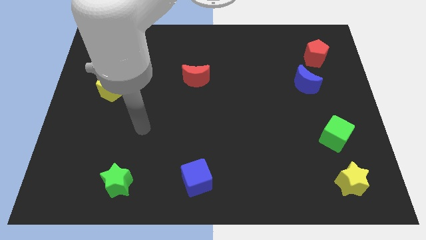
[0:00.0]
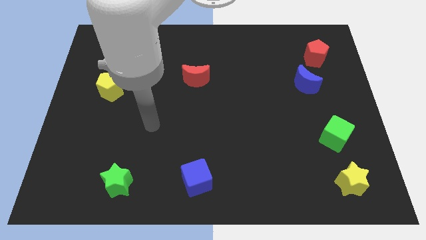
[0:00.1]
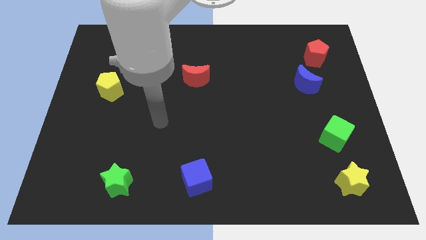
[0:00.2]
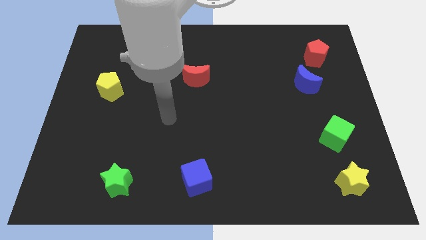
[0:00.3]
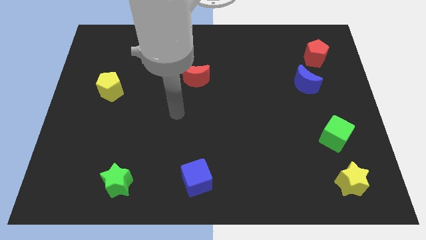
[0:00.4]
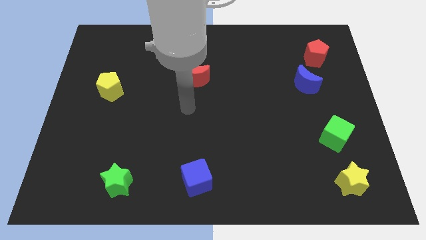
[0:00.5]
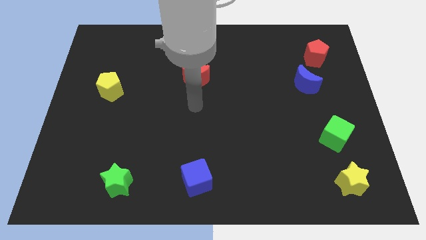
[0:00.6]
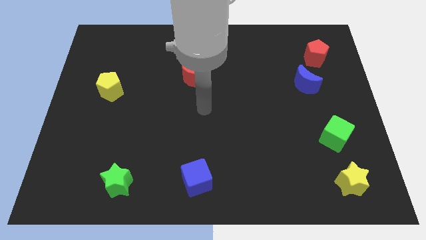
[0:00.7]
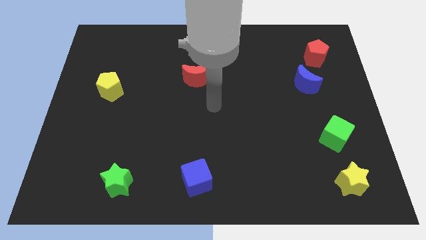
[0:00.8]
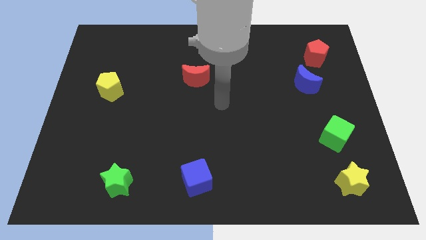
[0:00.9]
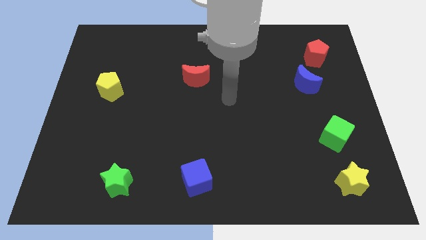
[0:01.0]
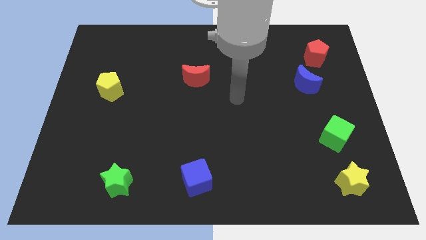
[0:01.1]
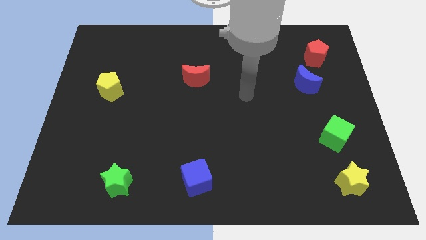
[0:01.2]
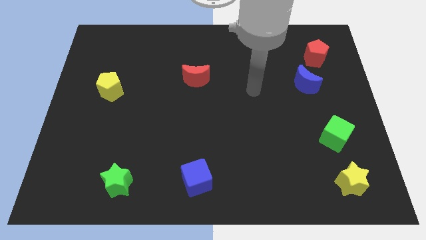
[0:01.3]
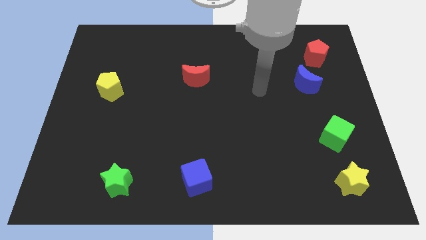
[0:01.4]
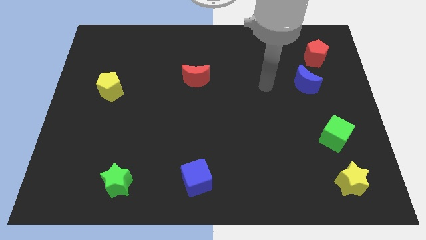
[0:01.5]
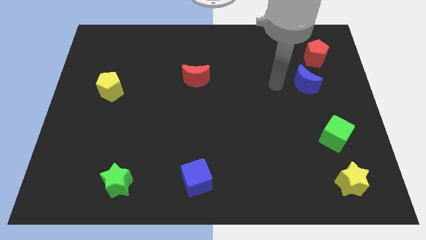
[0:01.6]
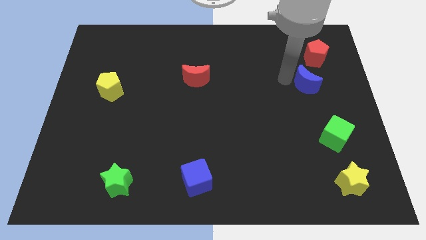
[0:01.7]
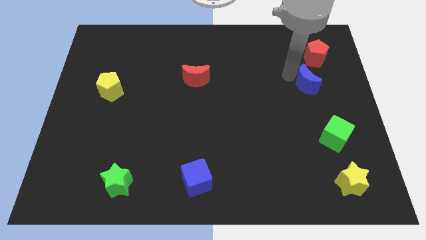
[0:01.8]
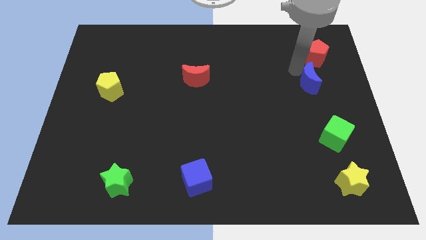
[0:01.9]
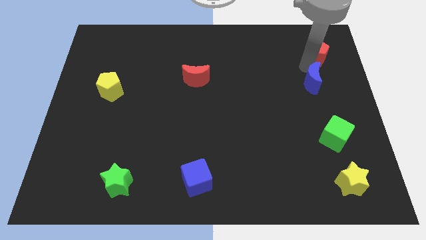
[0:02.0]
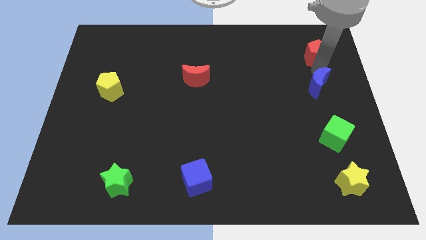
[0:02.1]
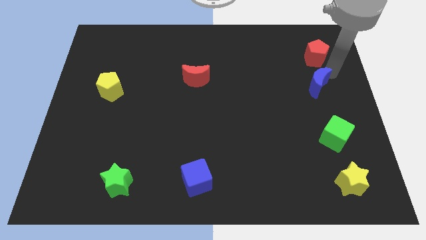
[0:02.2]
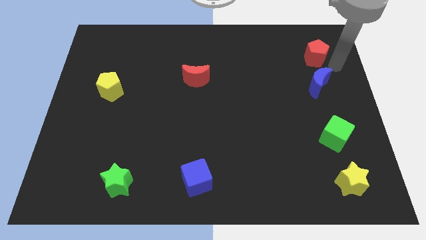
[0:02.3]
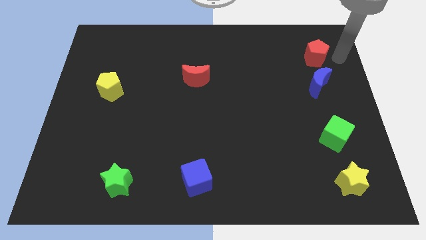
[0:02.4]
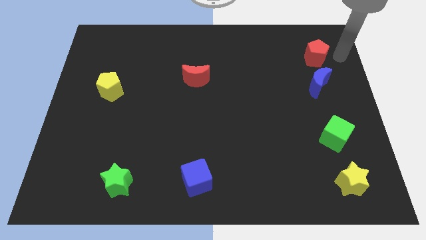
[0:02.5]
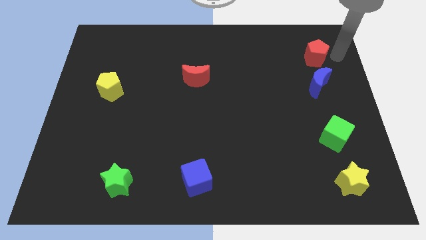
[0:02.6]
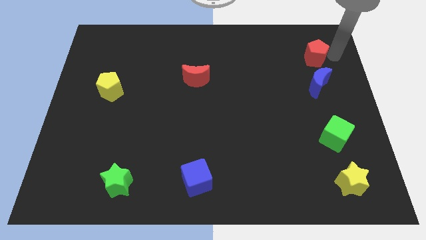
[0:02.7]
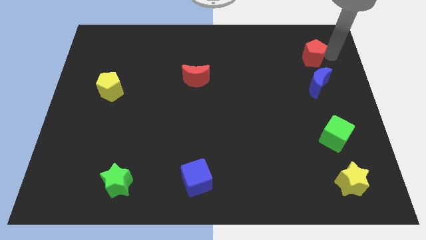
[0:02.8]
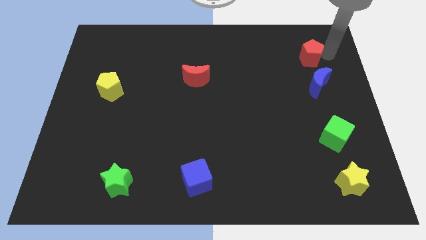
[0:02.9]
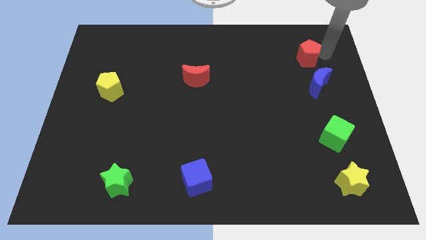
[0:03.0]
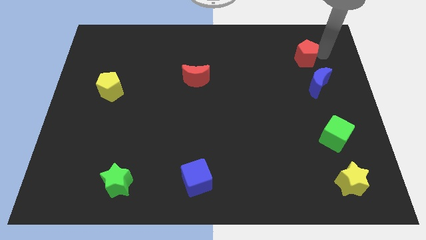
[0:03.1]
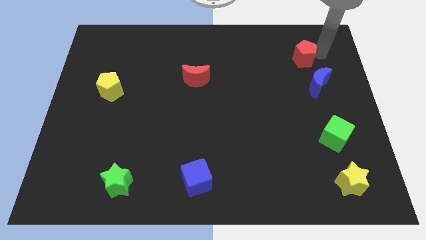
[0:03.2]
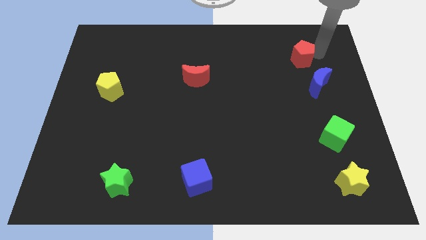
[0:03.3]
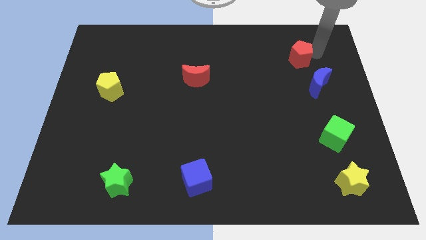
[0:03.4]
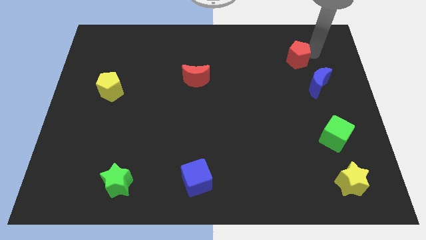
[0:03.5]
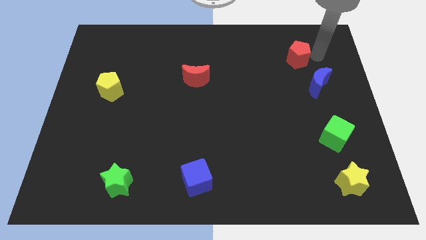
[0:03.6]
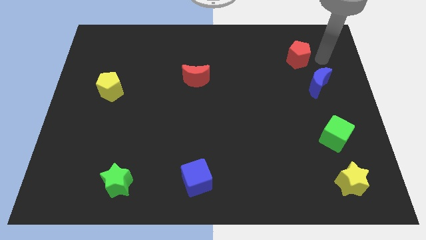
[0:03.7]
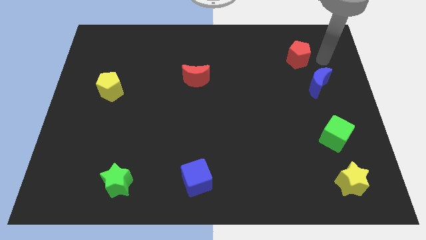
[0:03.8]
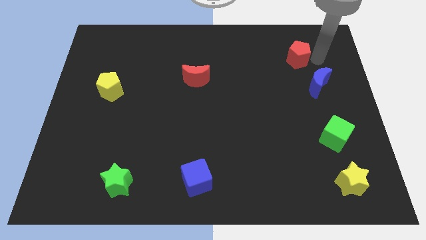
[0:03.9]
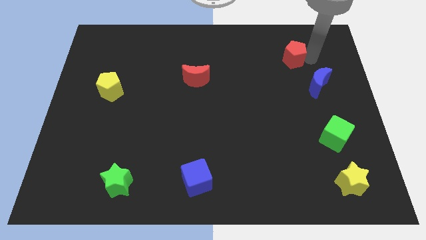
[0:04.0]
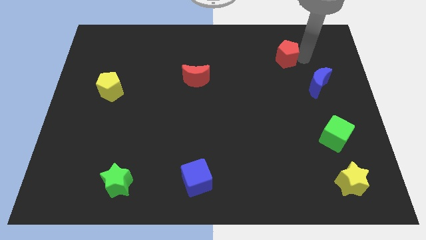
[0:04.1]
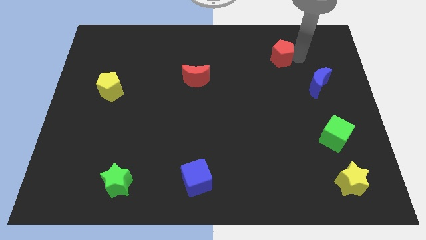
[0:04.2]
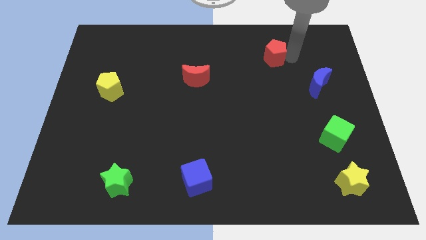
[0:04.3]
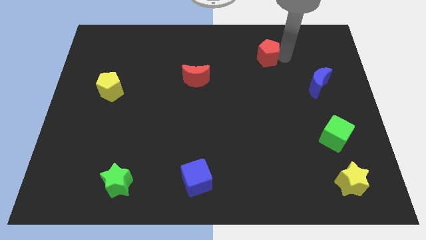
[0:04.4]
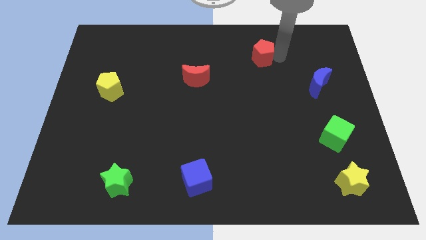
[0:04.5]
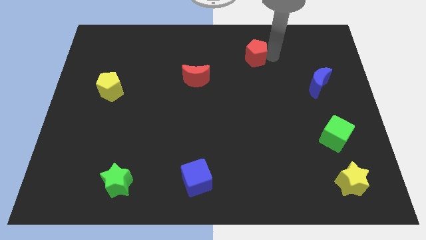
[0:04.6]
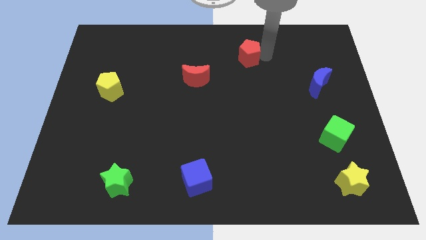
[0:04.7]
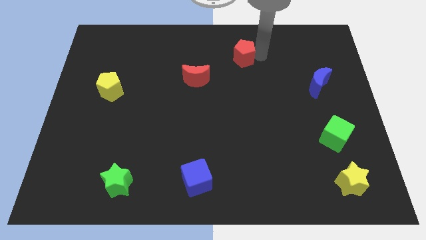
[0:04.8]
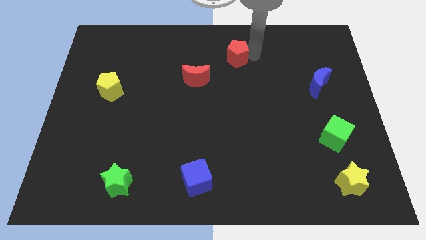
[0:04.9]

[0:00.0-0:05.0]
push the red pentagon left

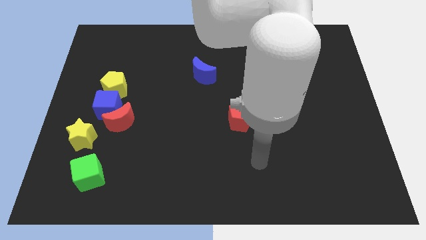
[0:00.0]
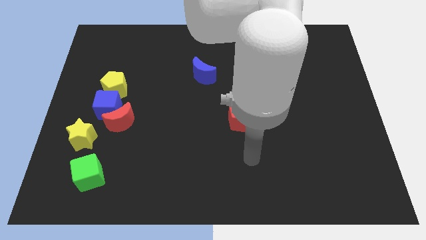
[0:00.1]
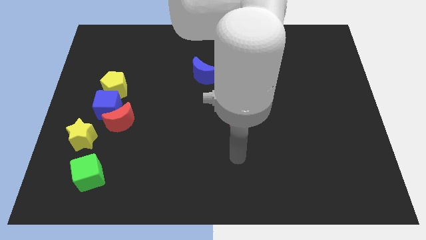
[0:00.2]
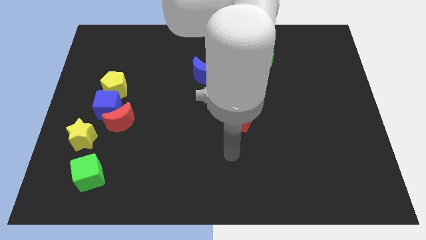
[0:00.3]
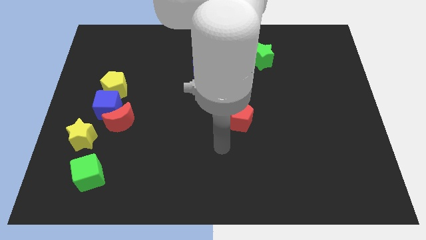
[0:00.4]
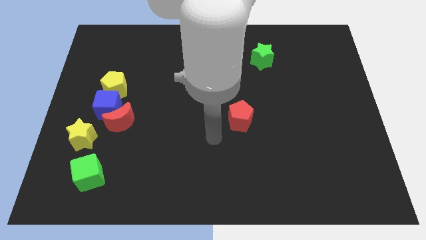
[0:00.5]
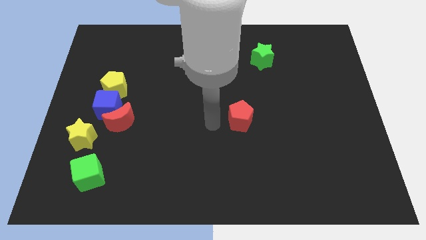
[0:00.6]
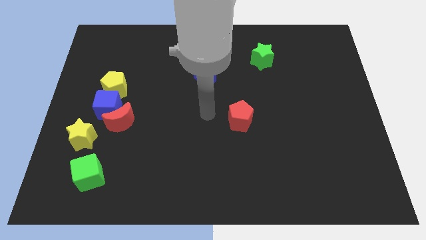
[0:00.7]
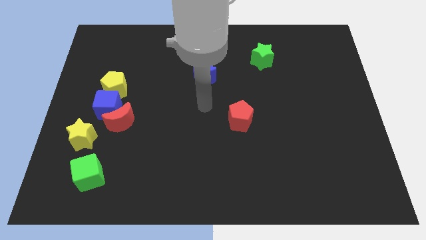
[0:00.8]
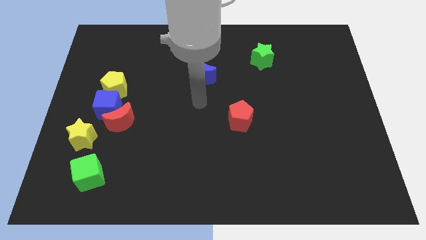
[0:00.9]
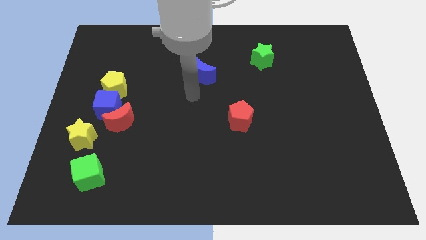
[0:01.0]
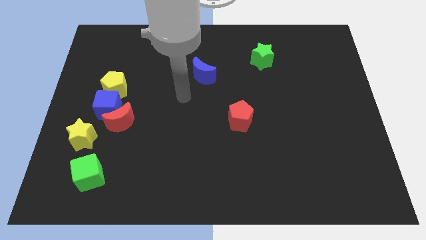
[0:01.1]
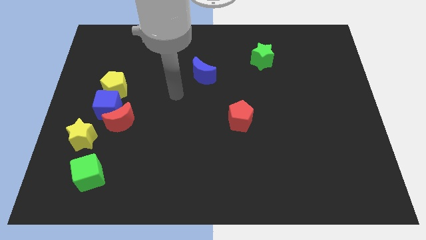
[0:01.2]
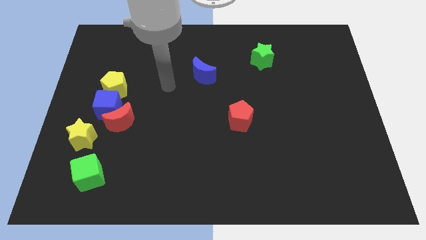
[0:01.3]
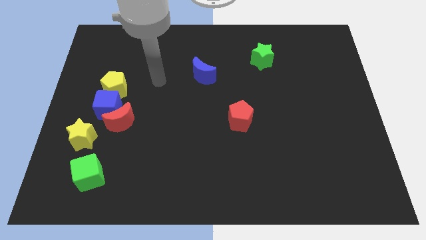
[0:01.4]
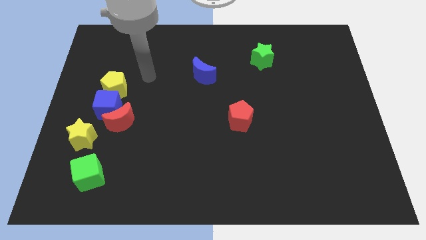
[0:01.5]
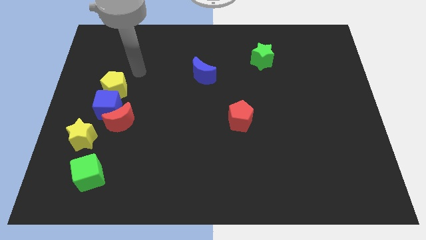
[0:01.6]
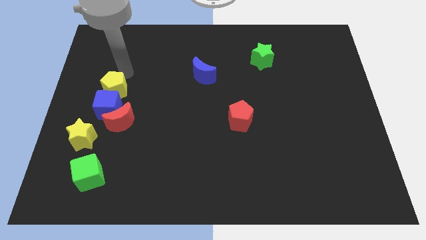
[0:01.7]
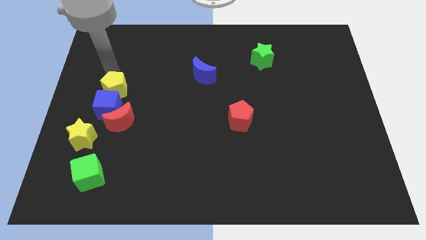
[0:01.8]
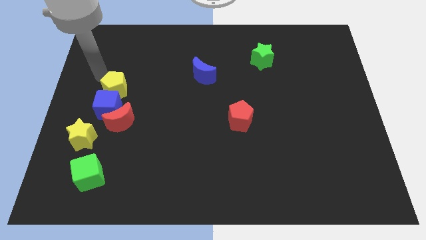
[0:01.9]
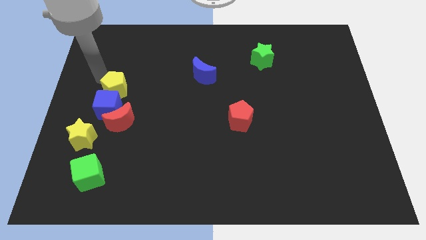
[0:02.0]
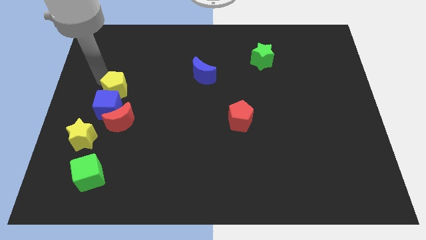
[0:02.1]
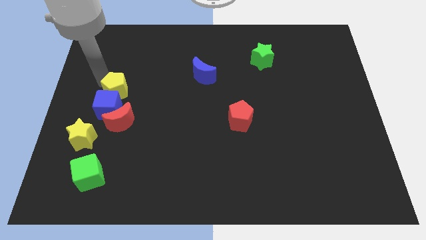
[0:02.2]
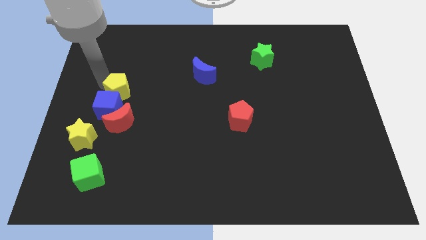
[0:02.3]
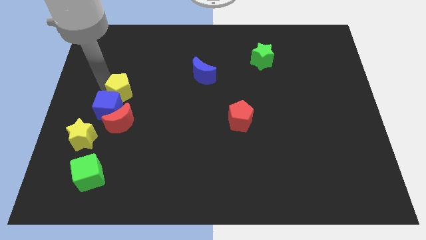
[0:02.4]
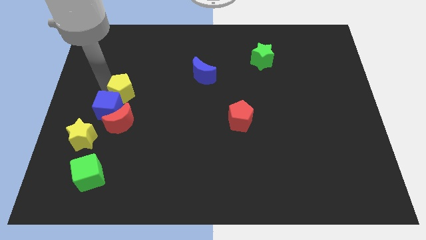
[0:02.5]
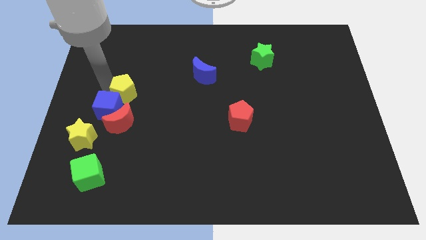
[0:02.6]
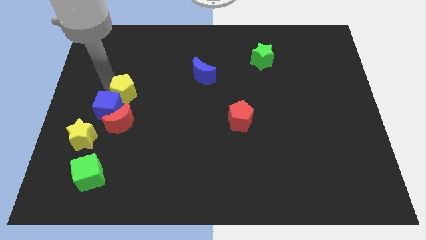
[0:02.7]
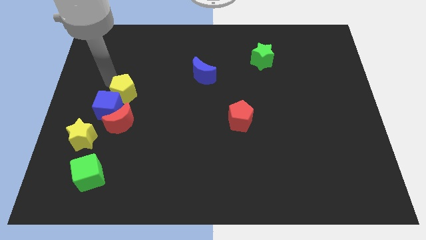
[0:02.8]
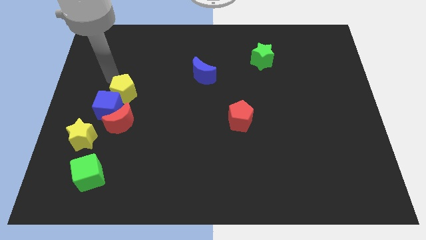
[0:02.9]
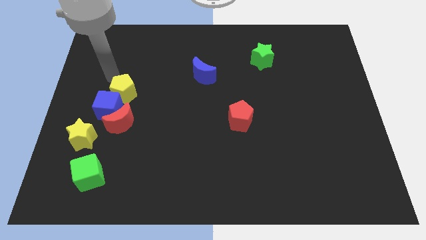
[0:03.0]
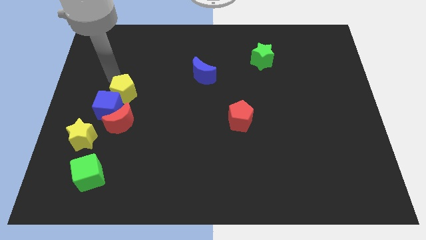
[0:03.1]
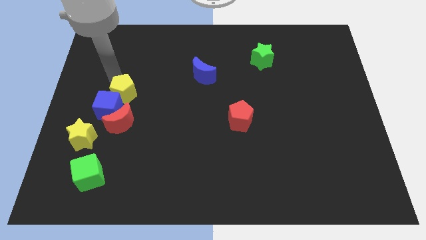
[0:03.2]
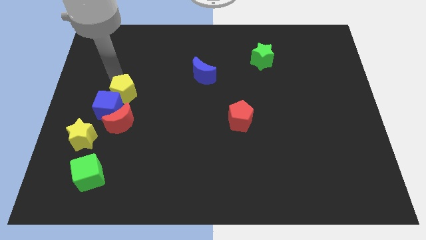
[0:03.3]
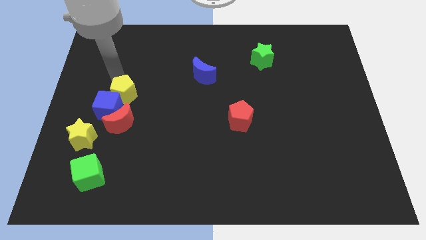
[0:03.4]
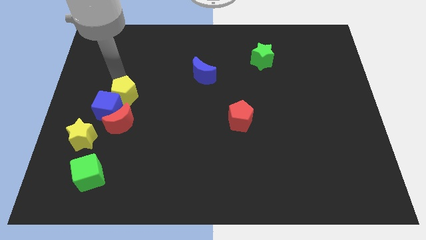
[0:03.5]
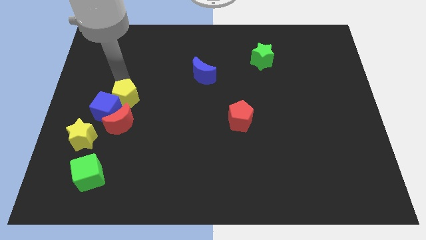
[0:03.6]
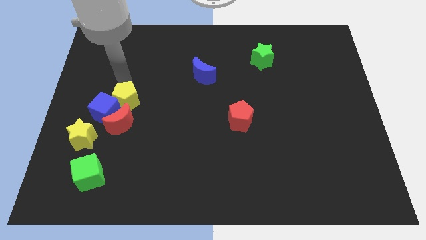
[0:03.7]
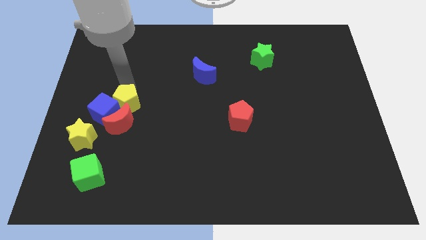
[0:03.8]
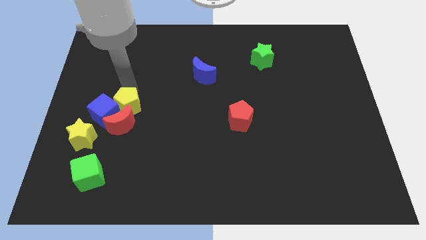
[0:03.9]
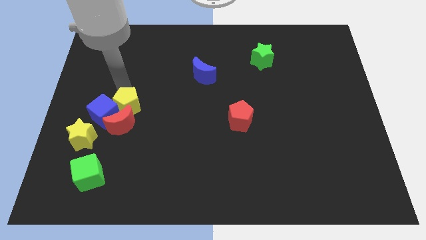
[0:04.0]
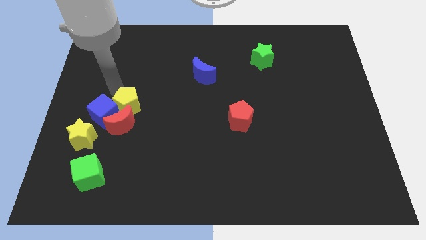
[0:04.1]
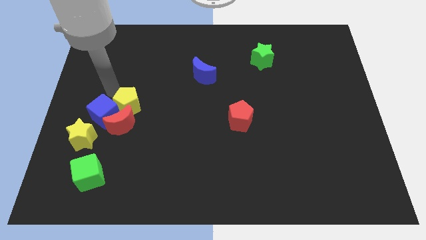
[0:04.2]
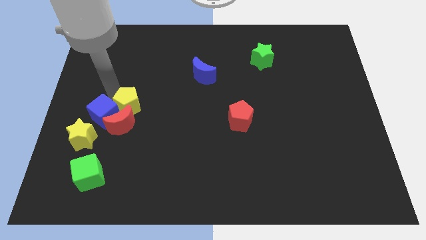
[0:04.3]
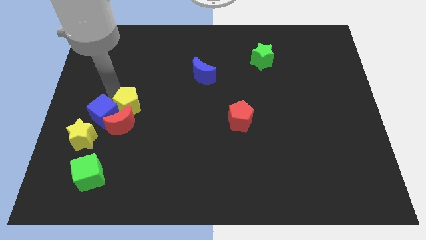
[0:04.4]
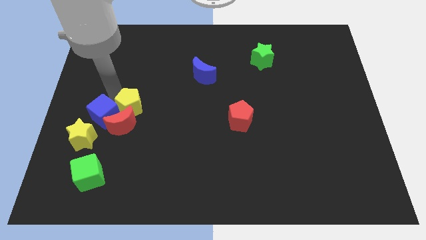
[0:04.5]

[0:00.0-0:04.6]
push the yellow pentagon a little down and right
